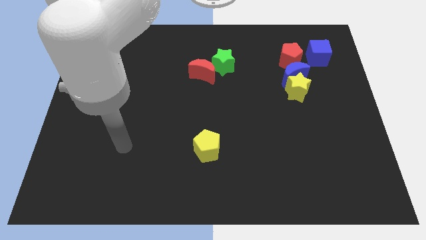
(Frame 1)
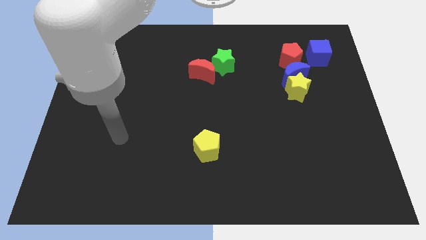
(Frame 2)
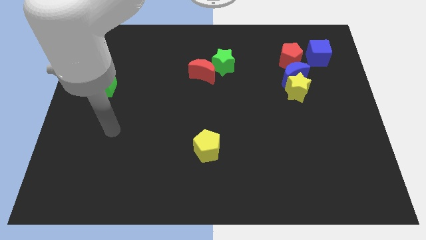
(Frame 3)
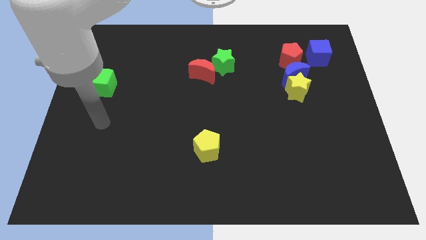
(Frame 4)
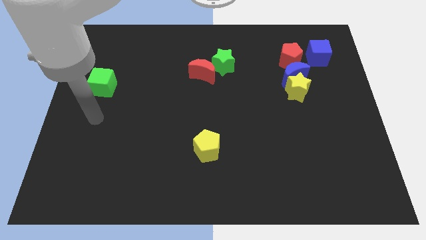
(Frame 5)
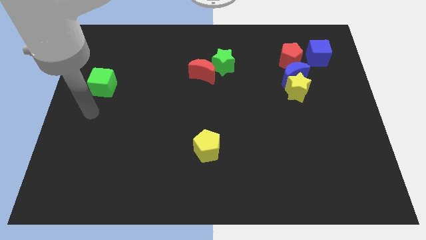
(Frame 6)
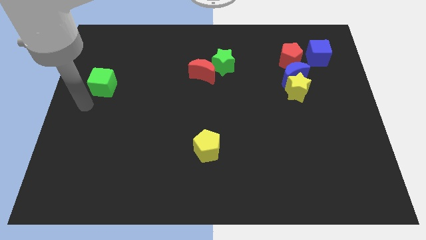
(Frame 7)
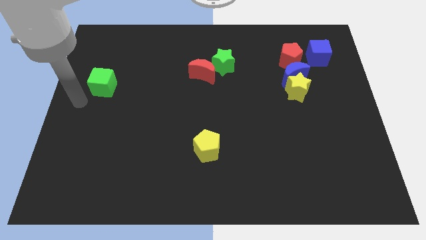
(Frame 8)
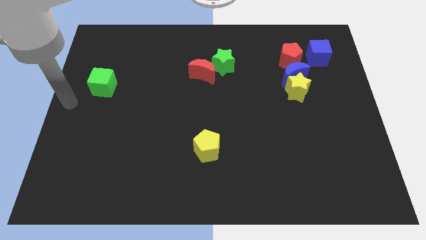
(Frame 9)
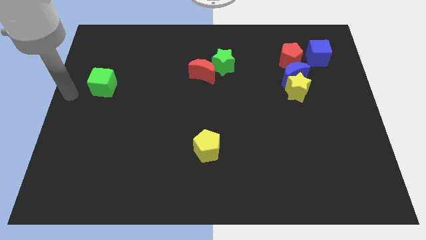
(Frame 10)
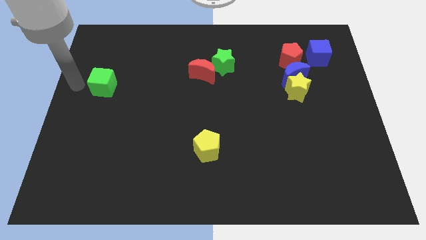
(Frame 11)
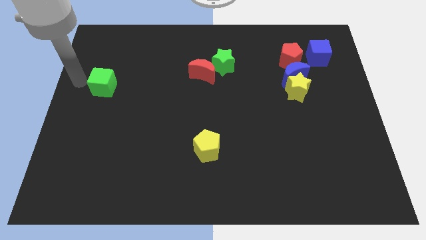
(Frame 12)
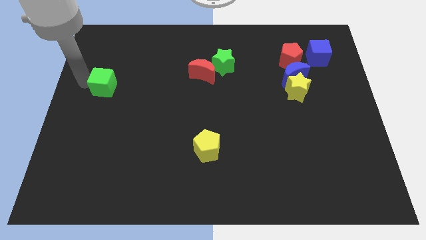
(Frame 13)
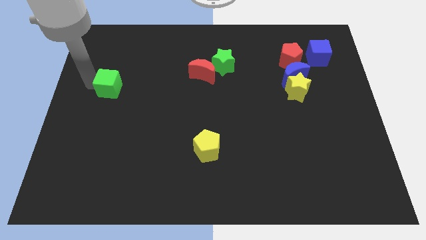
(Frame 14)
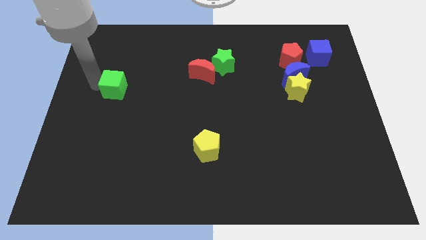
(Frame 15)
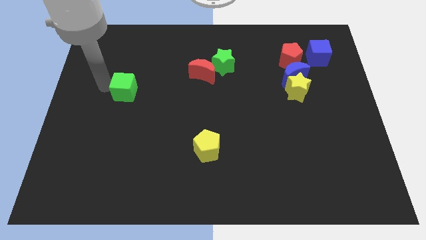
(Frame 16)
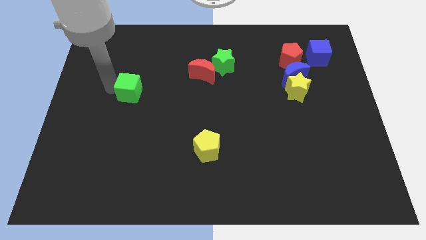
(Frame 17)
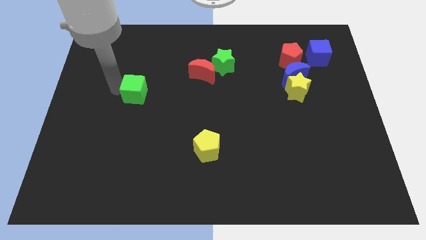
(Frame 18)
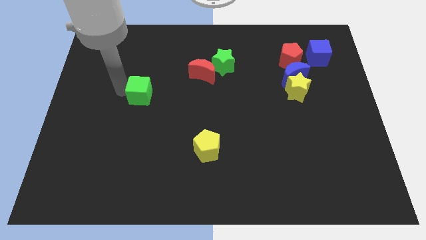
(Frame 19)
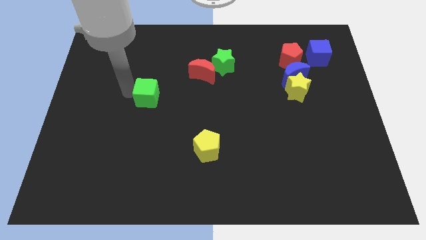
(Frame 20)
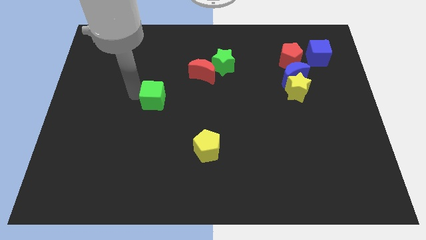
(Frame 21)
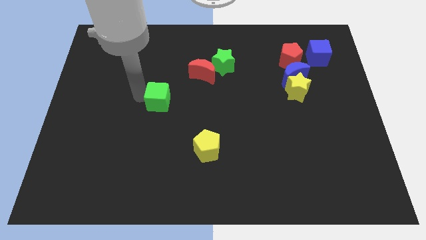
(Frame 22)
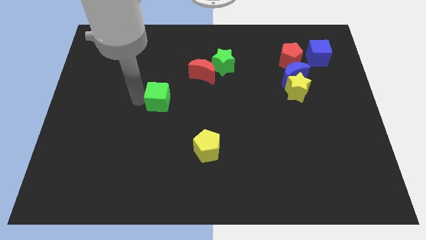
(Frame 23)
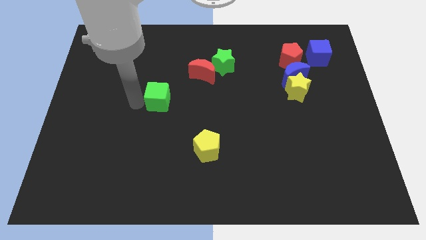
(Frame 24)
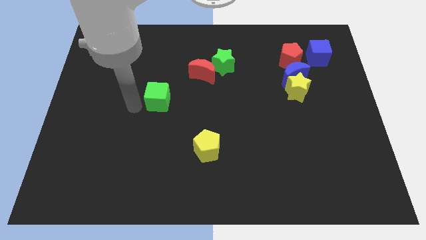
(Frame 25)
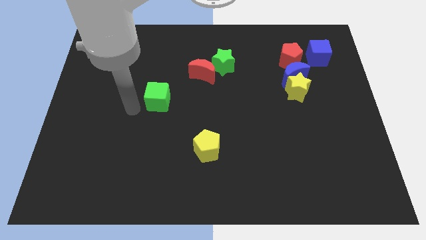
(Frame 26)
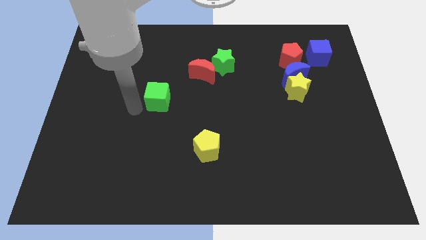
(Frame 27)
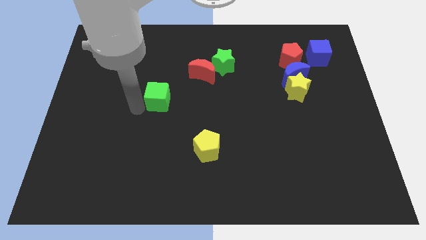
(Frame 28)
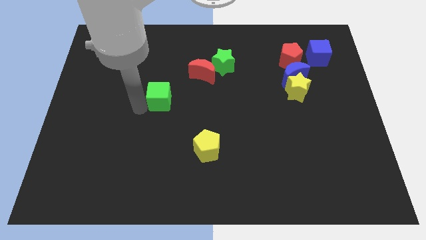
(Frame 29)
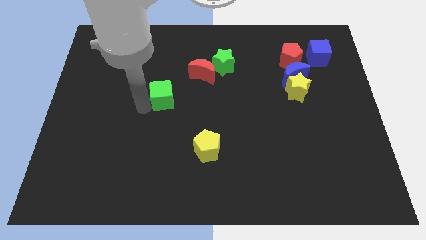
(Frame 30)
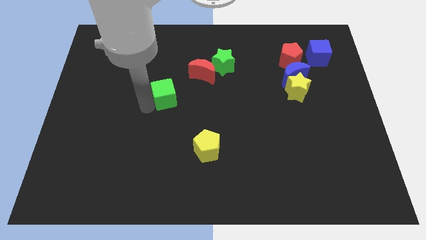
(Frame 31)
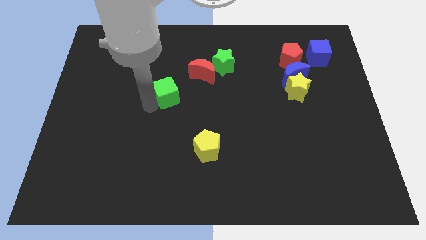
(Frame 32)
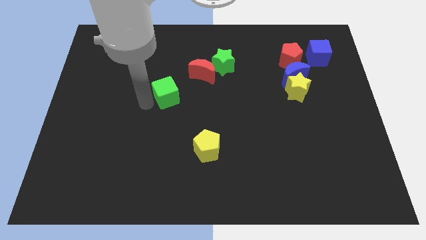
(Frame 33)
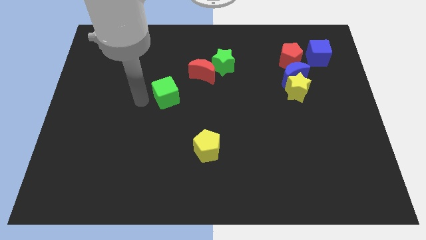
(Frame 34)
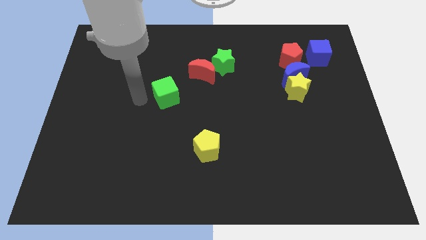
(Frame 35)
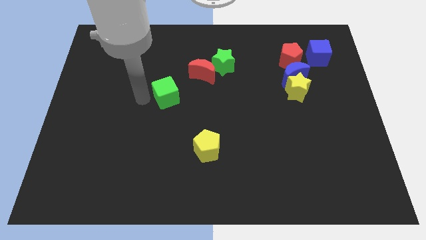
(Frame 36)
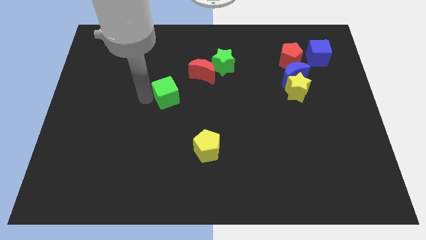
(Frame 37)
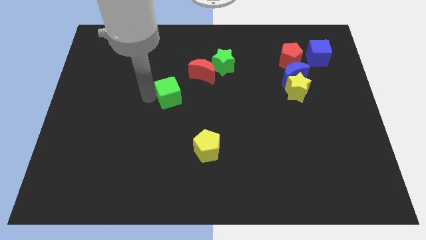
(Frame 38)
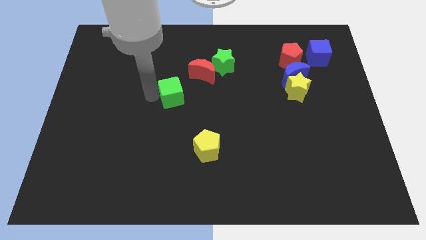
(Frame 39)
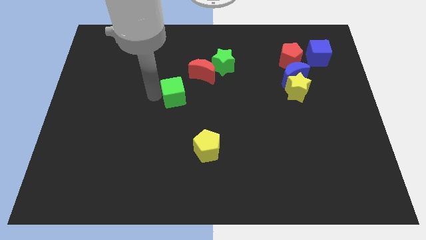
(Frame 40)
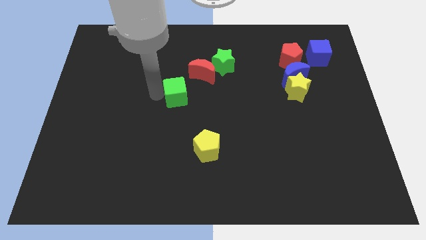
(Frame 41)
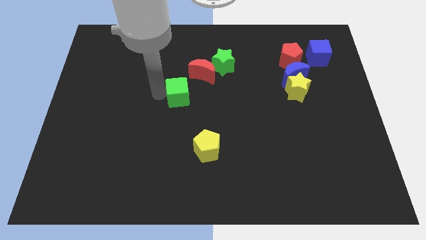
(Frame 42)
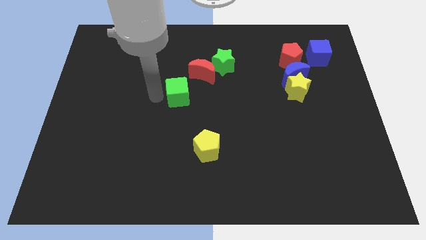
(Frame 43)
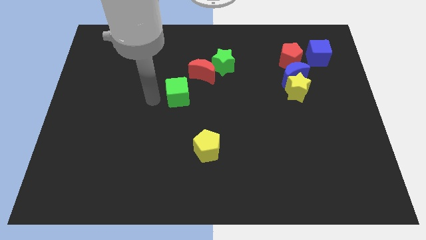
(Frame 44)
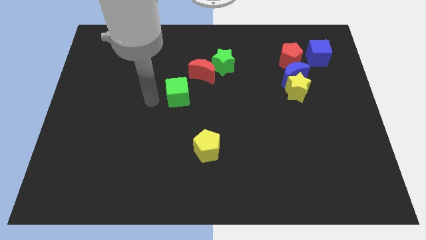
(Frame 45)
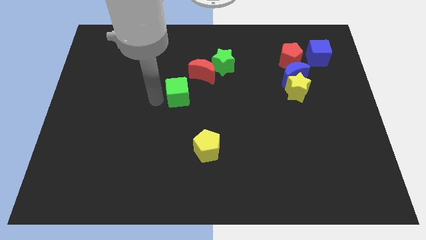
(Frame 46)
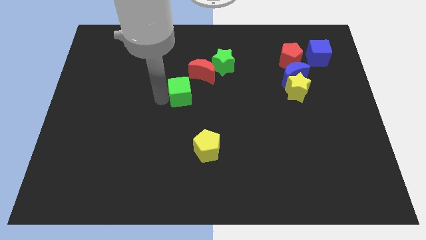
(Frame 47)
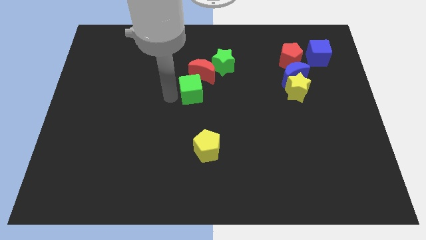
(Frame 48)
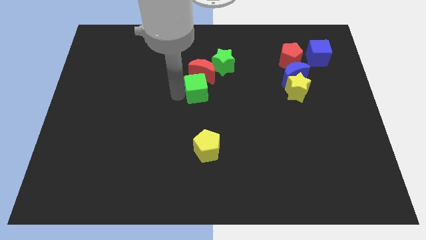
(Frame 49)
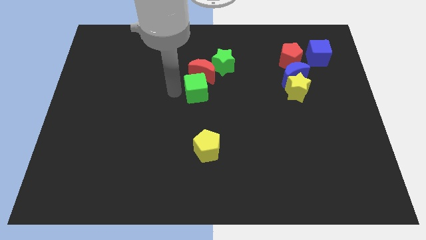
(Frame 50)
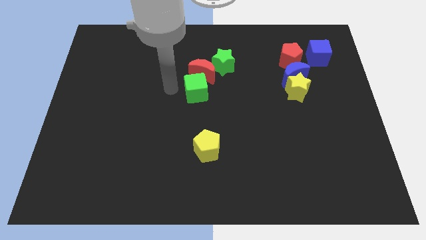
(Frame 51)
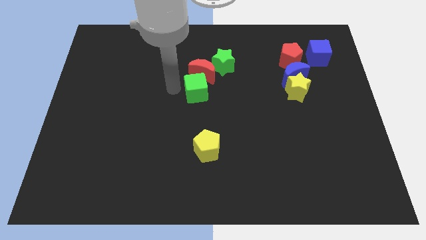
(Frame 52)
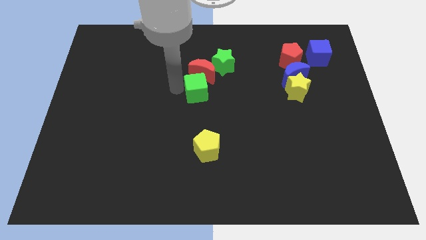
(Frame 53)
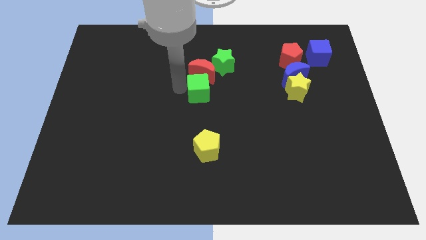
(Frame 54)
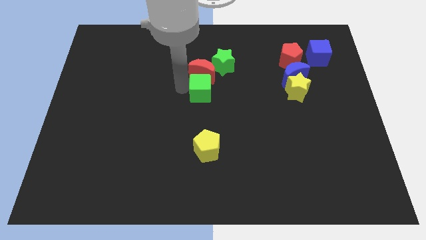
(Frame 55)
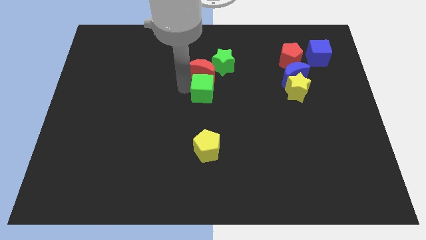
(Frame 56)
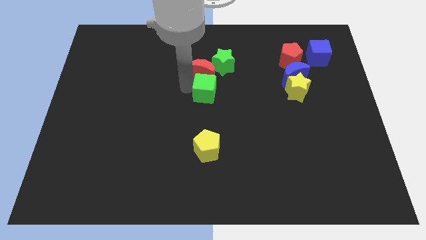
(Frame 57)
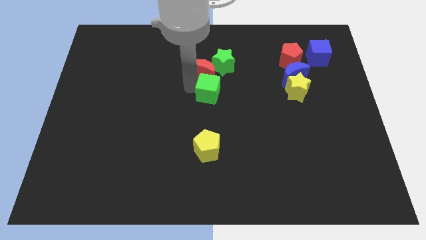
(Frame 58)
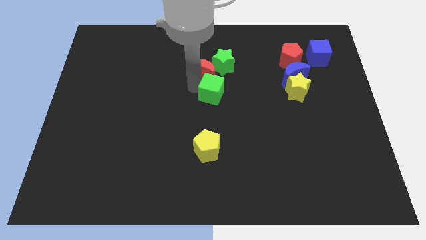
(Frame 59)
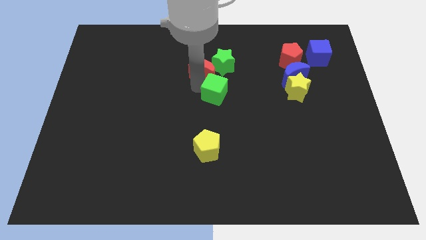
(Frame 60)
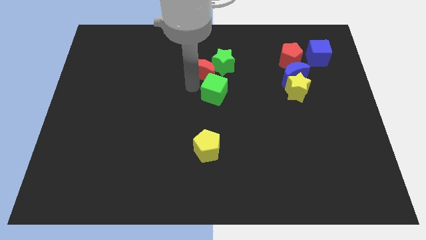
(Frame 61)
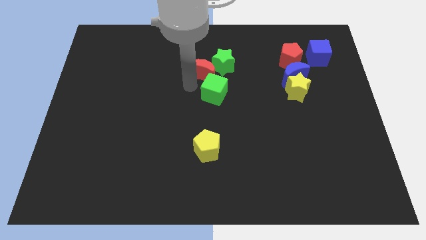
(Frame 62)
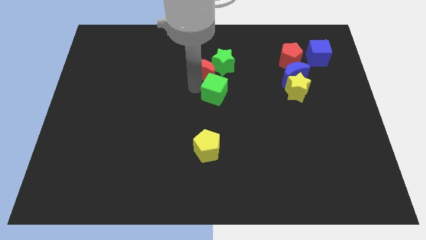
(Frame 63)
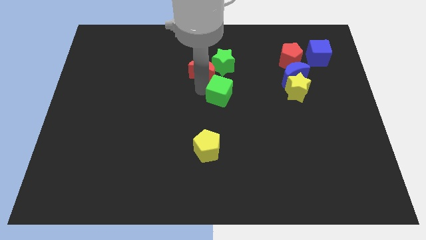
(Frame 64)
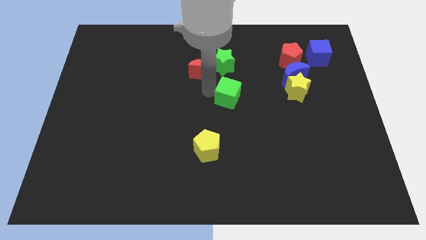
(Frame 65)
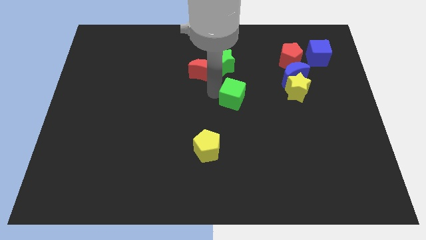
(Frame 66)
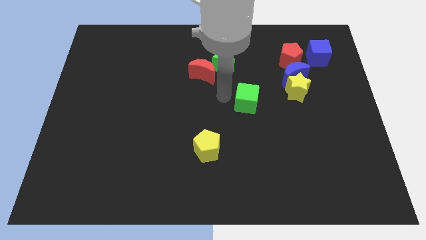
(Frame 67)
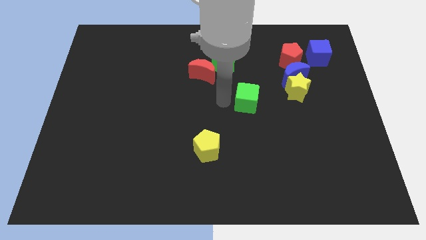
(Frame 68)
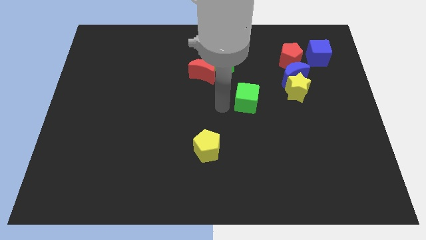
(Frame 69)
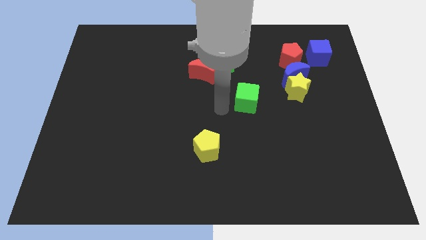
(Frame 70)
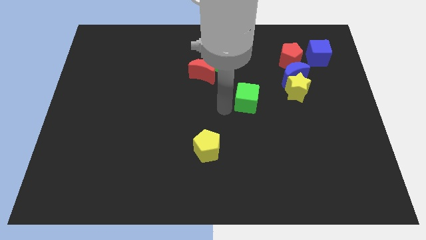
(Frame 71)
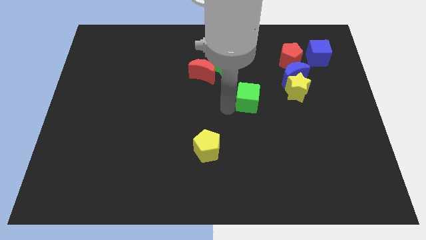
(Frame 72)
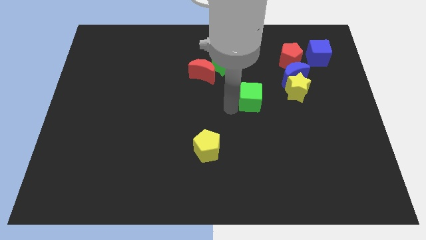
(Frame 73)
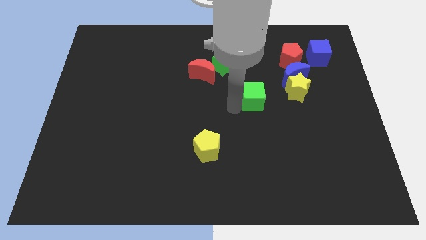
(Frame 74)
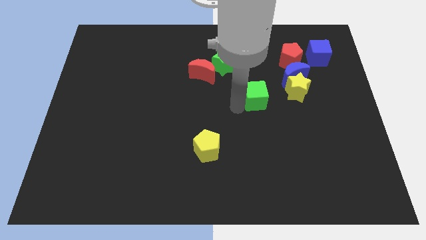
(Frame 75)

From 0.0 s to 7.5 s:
slide the green cube to the bottom left side of the blue moon
